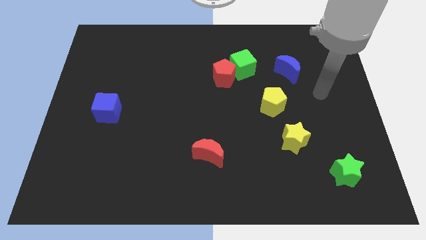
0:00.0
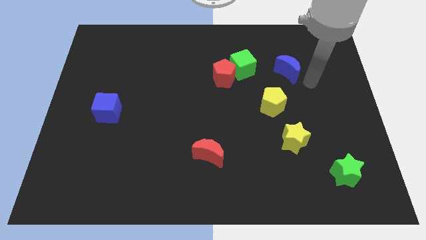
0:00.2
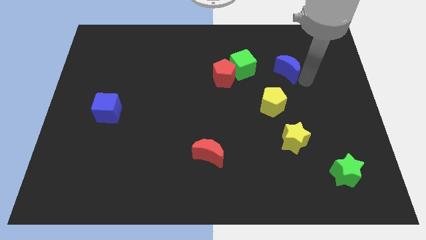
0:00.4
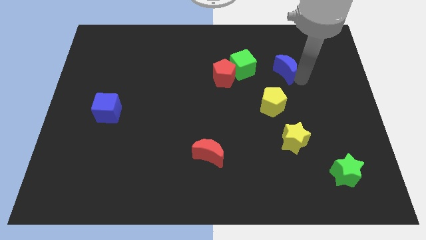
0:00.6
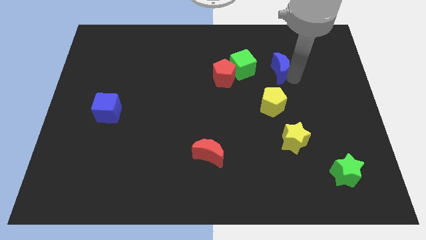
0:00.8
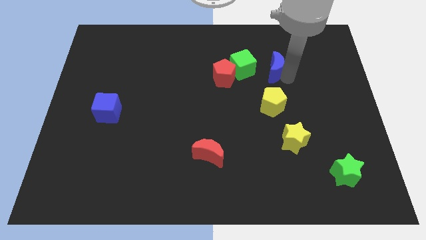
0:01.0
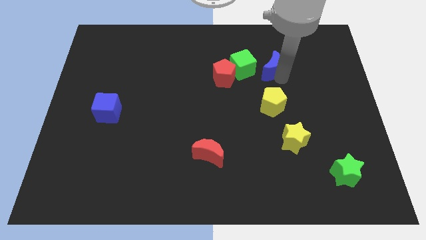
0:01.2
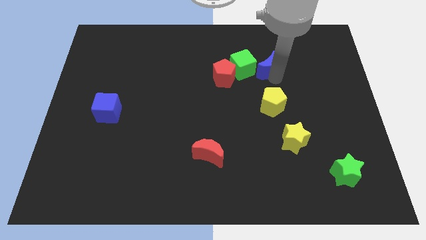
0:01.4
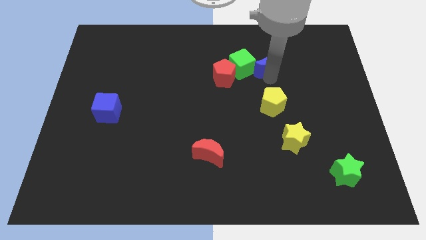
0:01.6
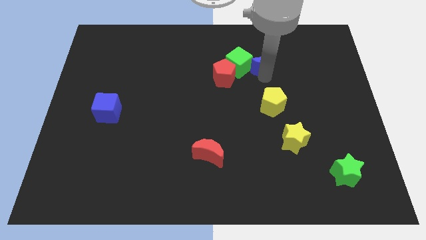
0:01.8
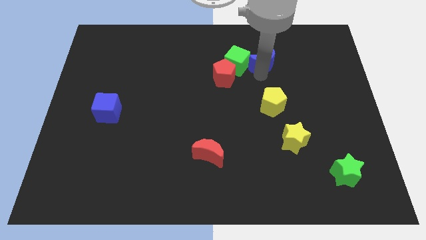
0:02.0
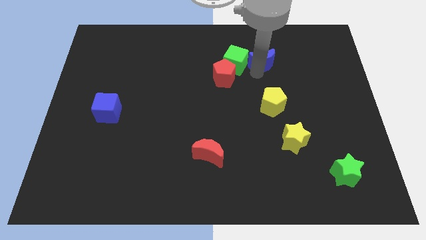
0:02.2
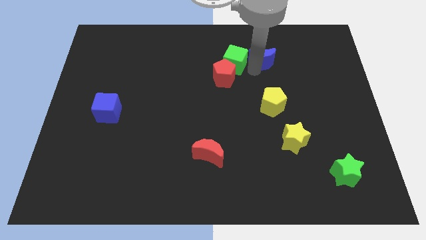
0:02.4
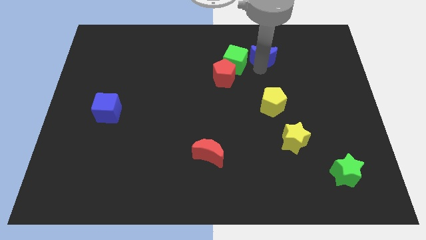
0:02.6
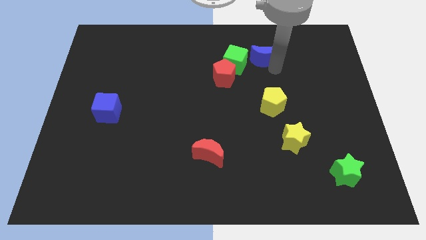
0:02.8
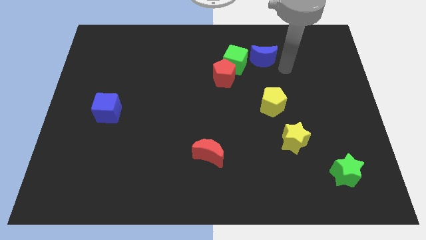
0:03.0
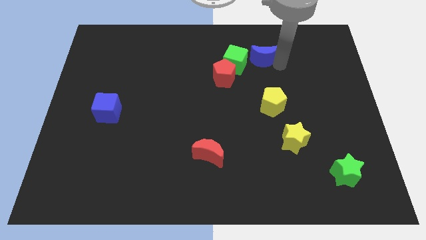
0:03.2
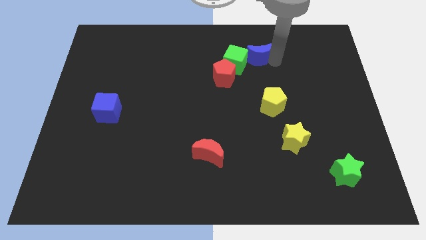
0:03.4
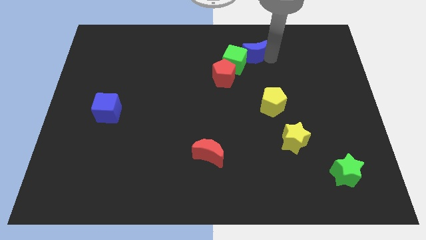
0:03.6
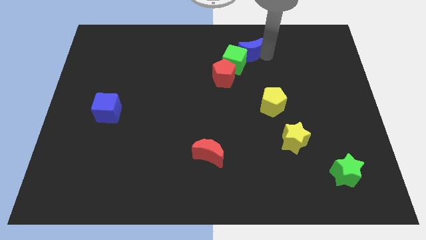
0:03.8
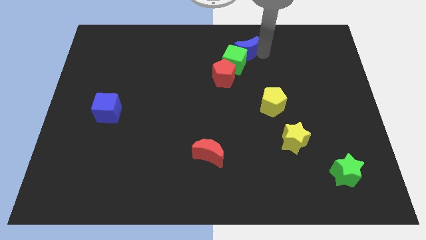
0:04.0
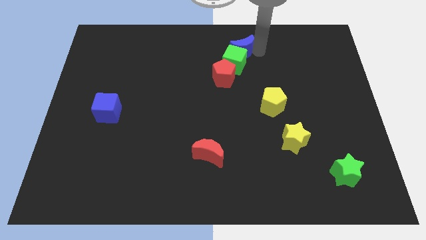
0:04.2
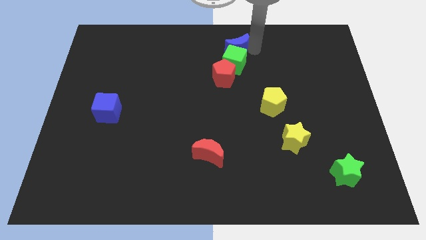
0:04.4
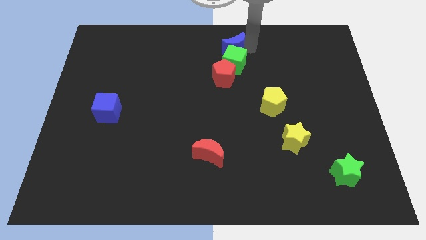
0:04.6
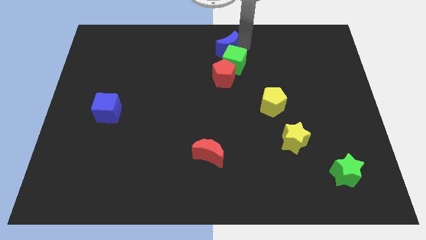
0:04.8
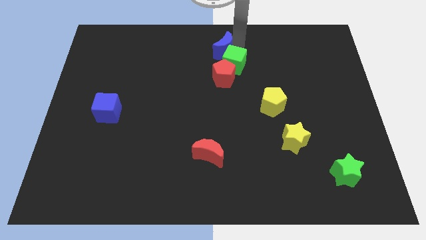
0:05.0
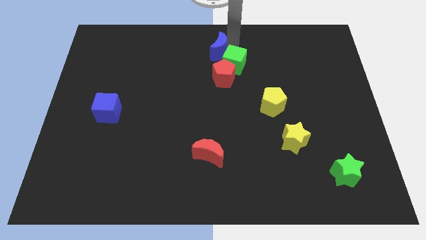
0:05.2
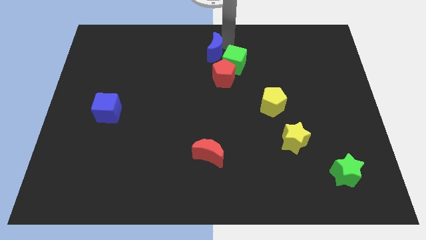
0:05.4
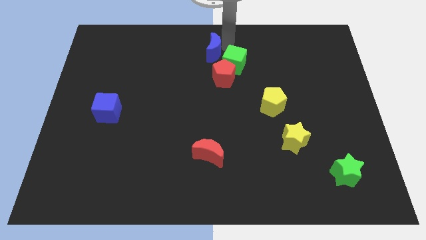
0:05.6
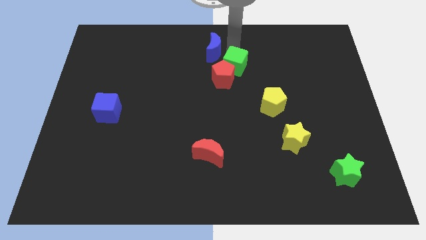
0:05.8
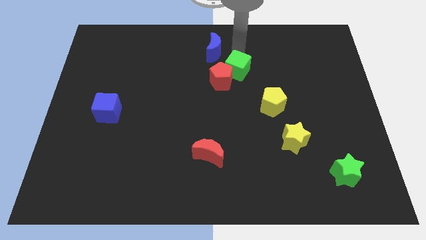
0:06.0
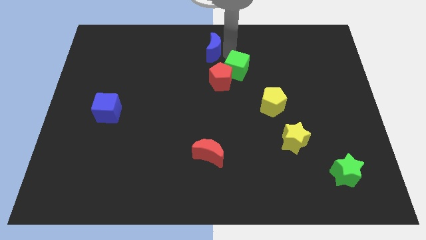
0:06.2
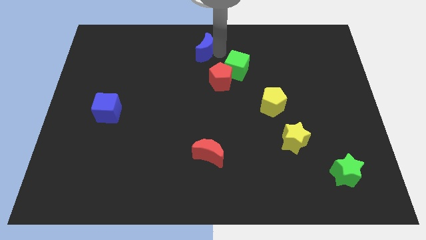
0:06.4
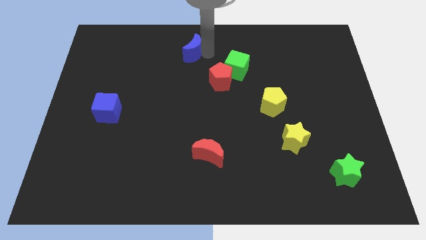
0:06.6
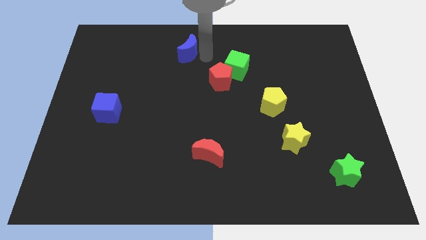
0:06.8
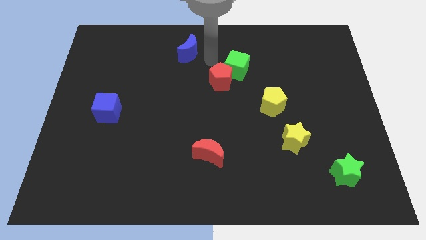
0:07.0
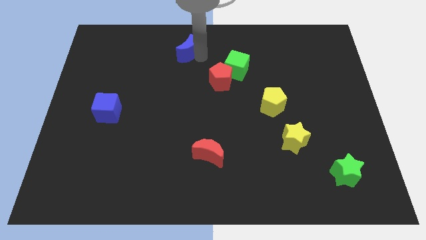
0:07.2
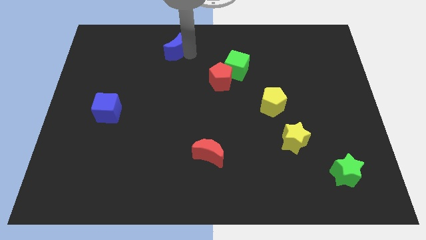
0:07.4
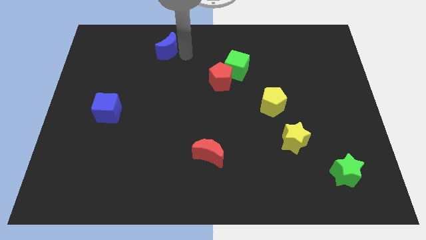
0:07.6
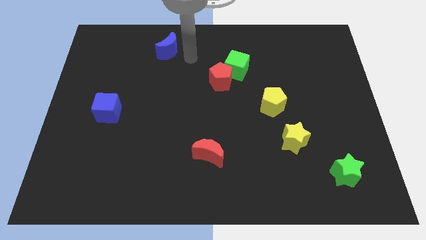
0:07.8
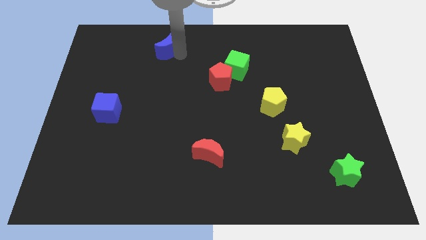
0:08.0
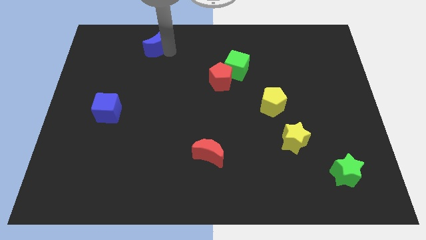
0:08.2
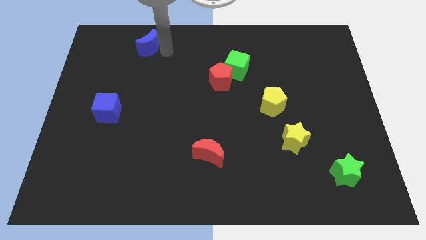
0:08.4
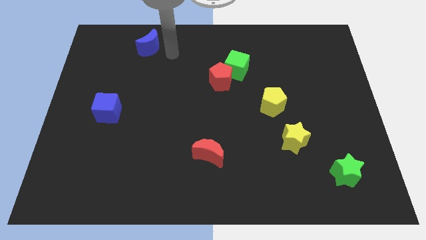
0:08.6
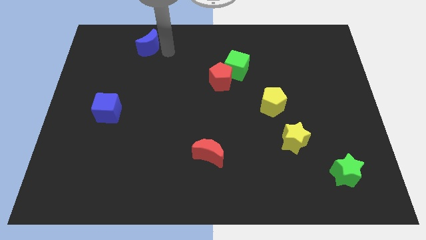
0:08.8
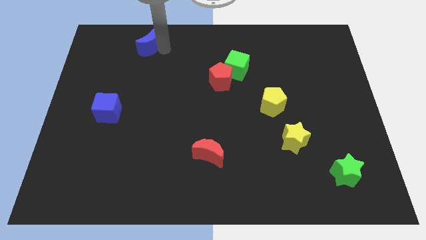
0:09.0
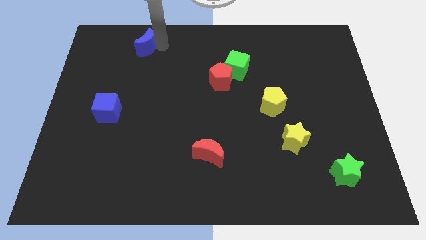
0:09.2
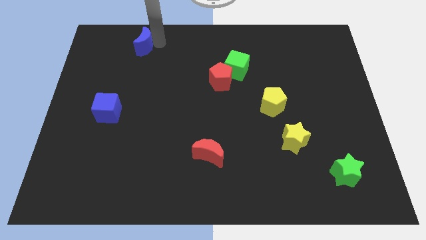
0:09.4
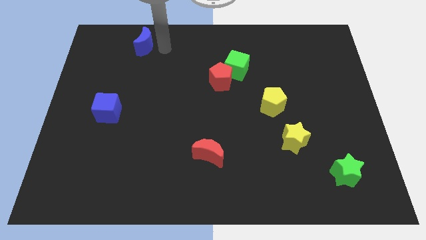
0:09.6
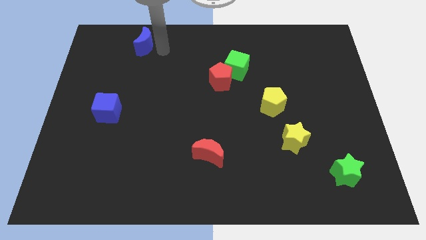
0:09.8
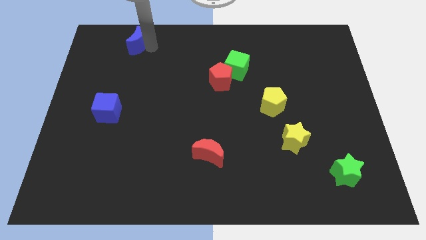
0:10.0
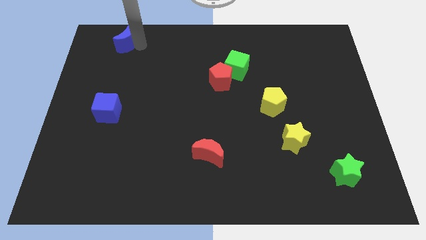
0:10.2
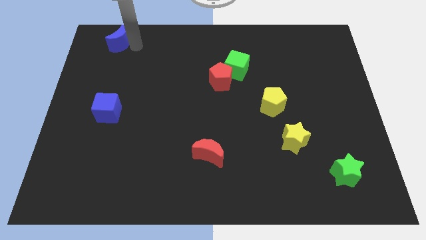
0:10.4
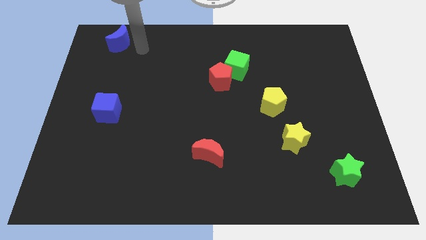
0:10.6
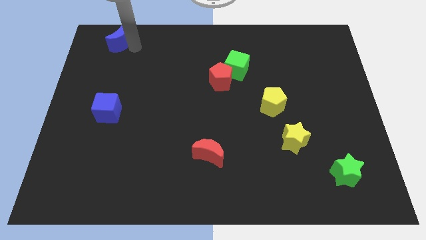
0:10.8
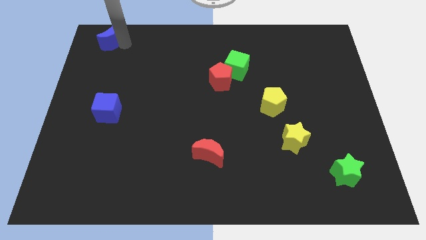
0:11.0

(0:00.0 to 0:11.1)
move the blue moon to the top left of the board

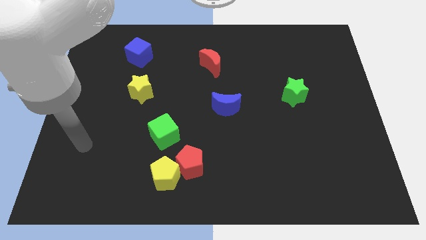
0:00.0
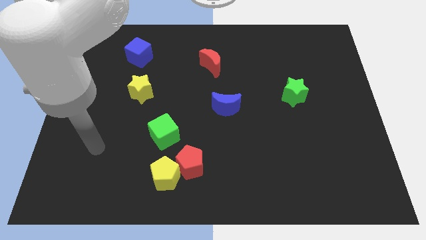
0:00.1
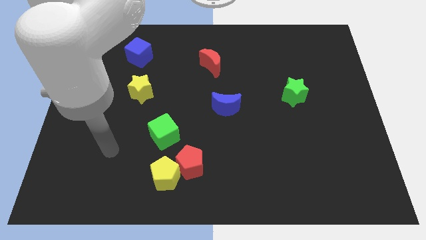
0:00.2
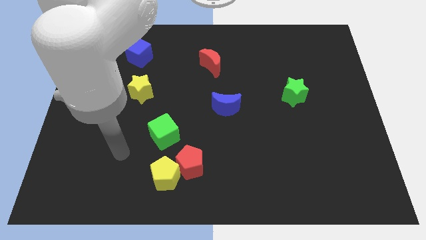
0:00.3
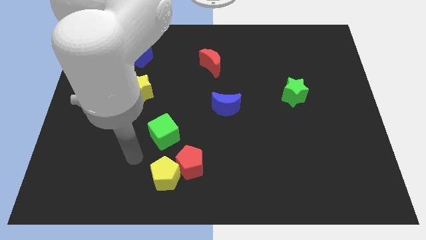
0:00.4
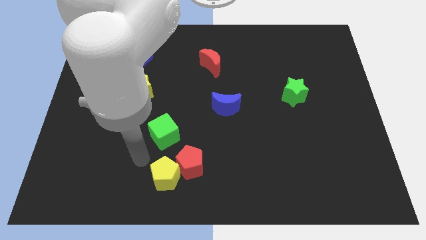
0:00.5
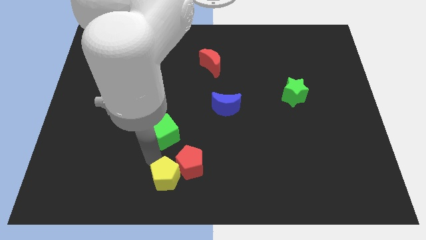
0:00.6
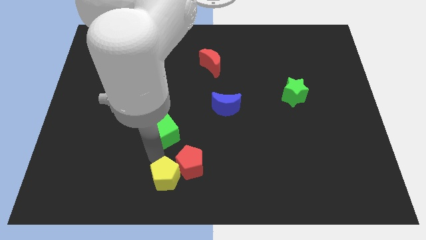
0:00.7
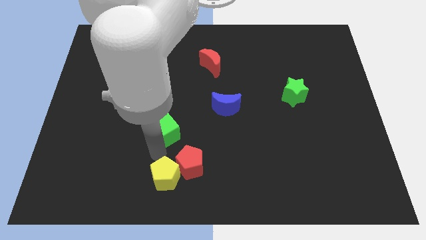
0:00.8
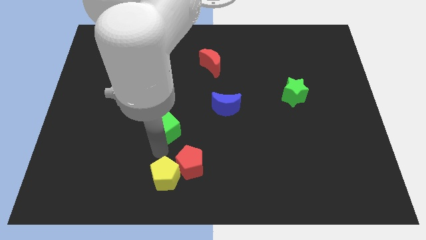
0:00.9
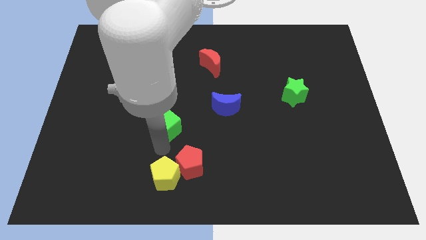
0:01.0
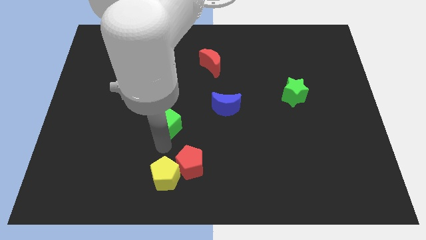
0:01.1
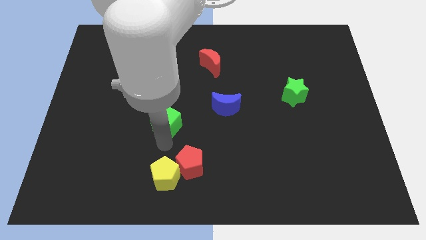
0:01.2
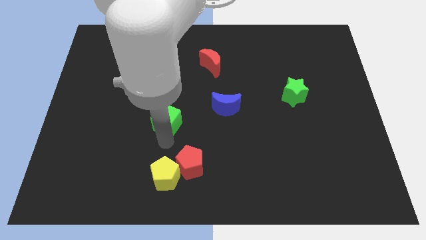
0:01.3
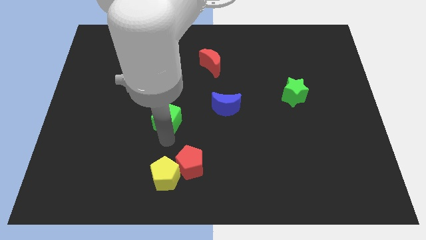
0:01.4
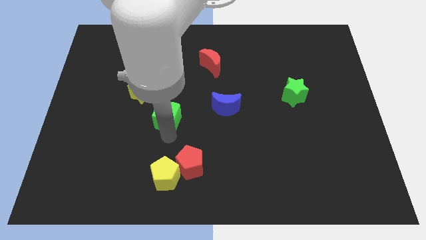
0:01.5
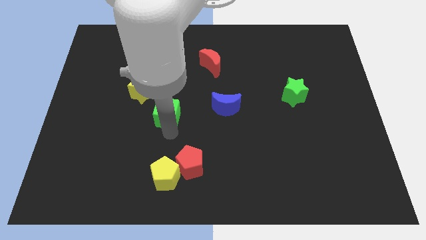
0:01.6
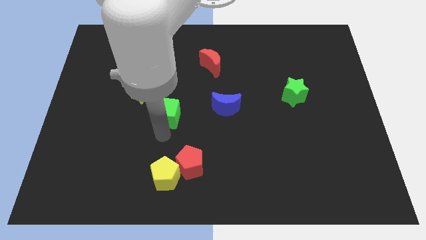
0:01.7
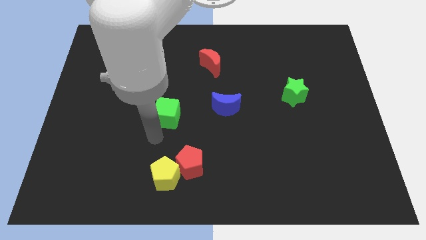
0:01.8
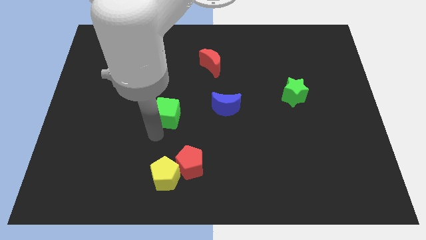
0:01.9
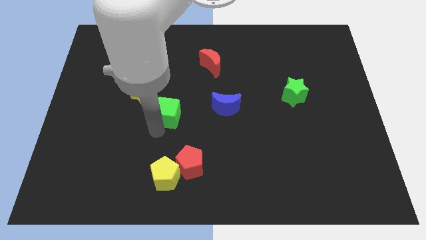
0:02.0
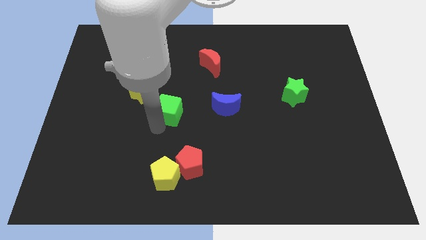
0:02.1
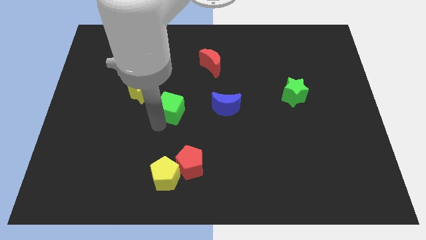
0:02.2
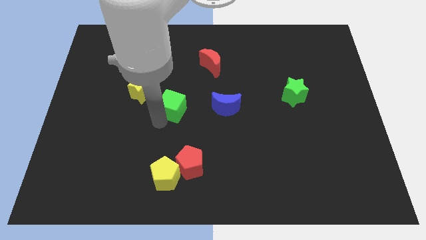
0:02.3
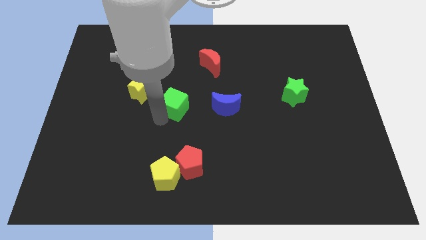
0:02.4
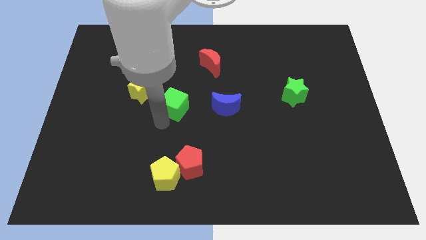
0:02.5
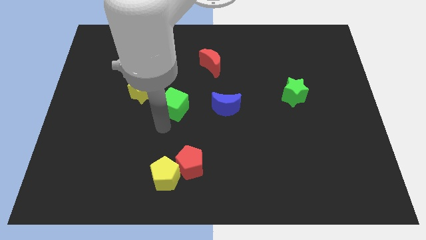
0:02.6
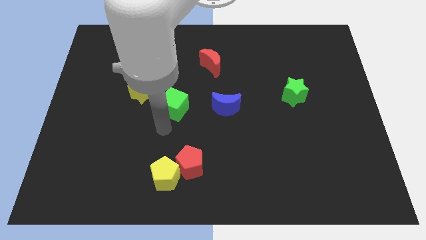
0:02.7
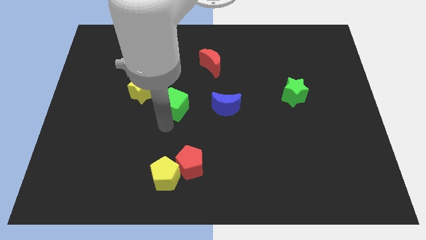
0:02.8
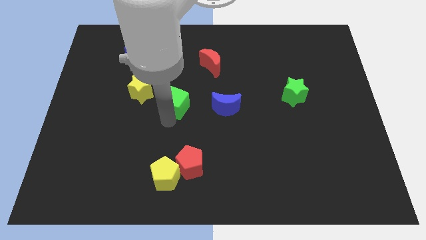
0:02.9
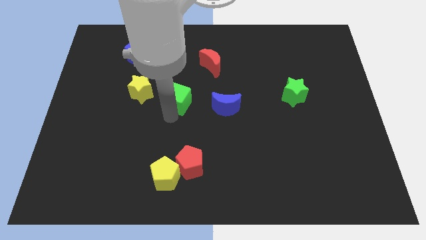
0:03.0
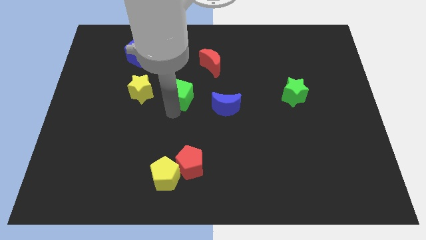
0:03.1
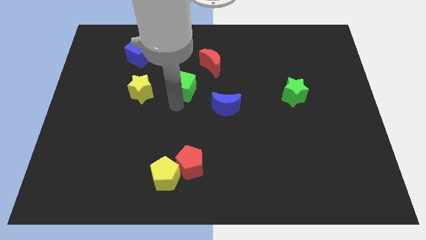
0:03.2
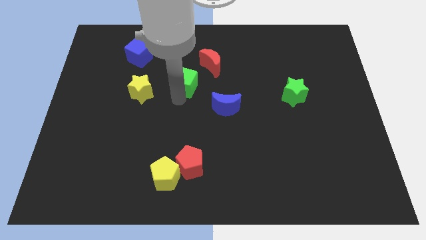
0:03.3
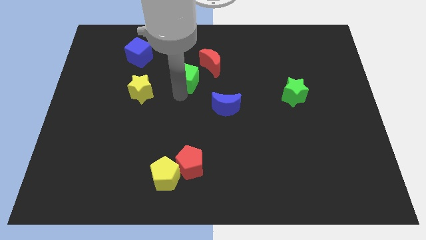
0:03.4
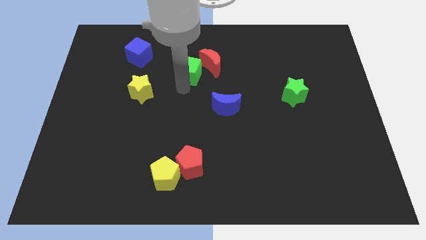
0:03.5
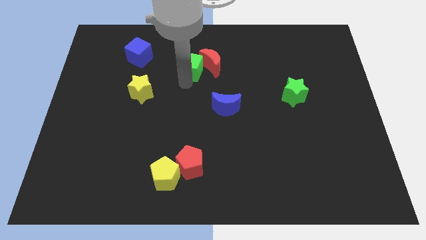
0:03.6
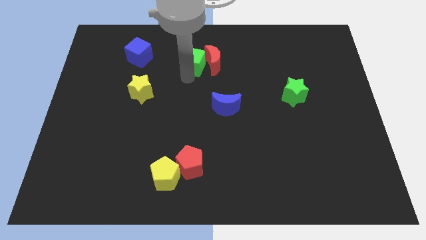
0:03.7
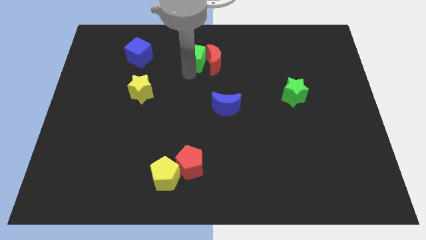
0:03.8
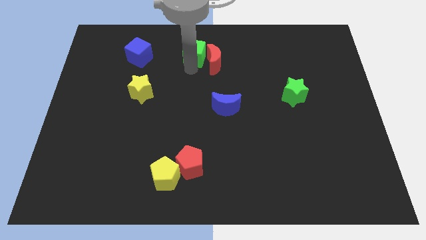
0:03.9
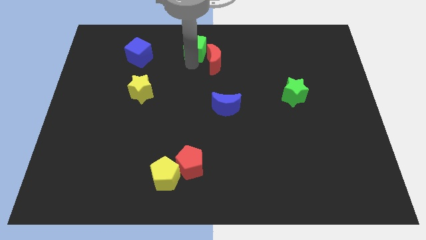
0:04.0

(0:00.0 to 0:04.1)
slide the green cube to the towards your base
